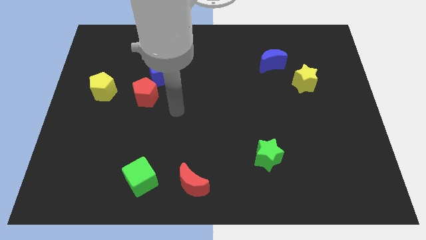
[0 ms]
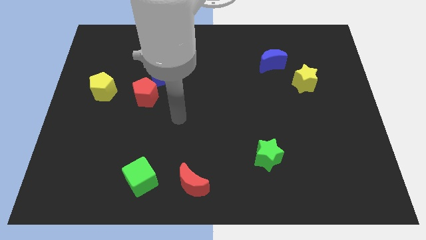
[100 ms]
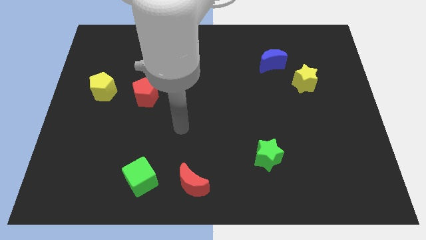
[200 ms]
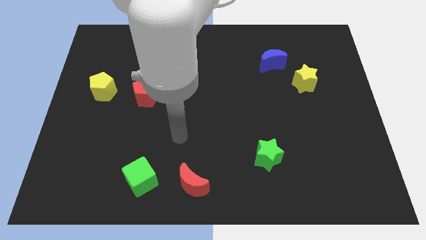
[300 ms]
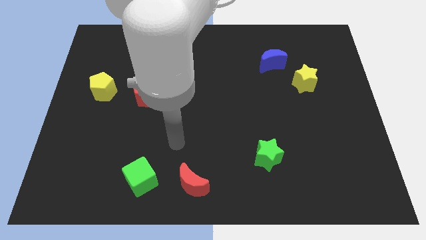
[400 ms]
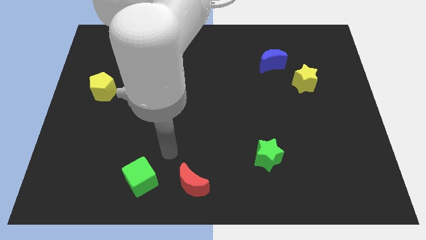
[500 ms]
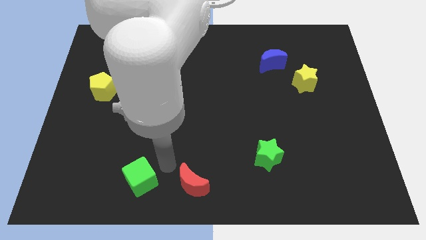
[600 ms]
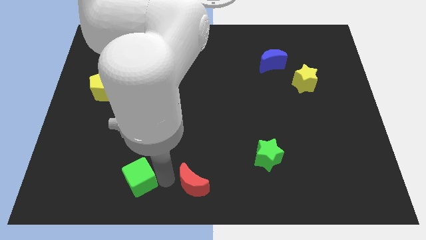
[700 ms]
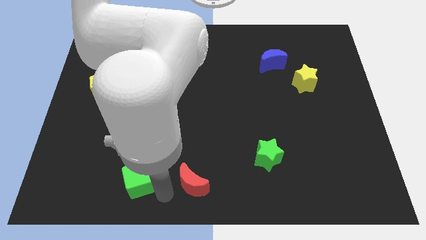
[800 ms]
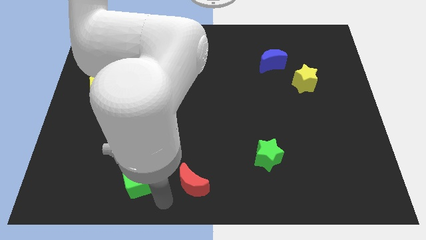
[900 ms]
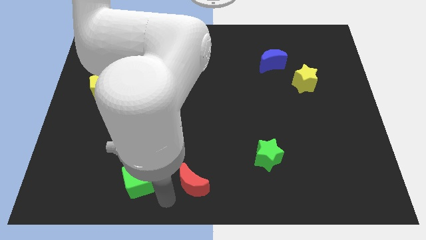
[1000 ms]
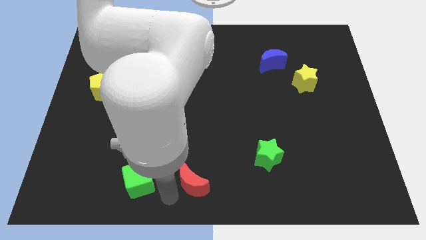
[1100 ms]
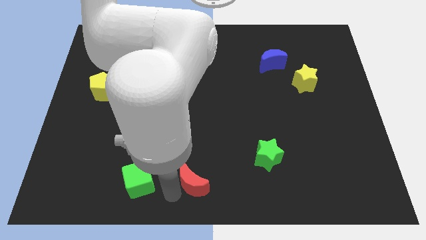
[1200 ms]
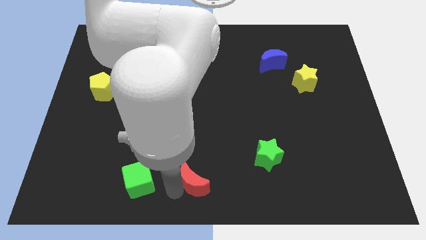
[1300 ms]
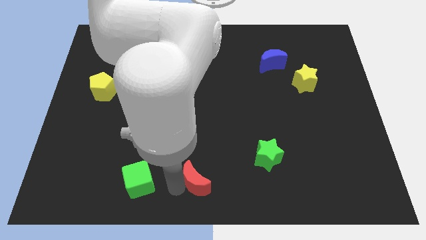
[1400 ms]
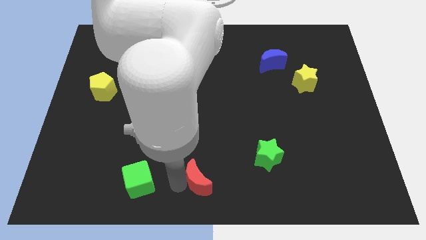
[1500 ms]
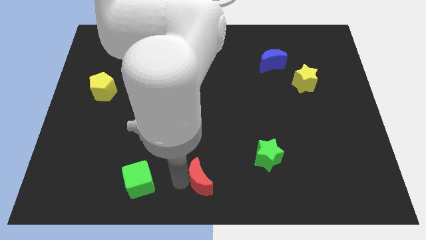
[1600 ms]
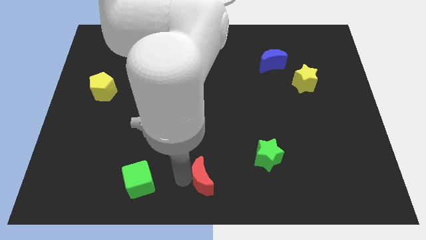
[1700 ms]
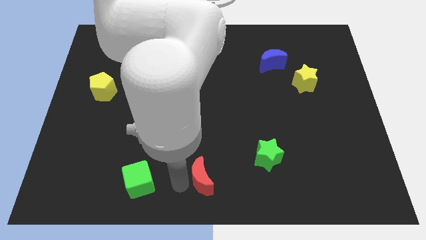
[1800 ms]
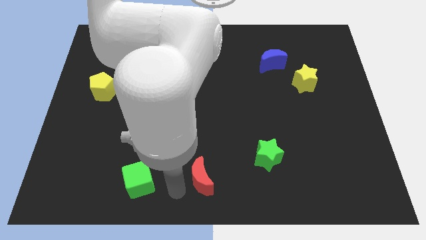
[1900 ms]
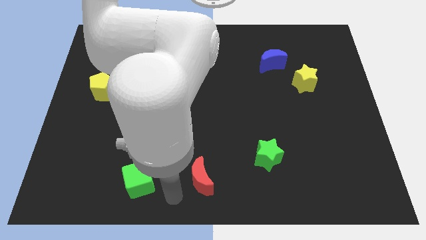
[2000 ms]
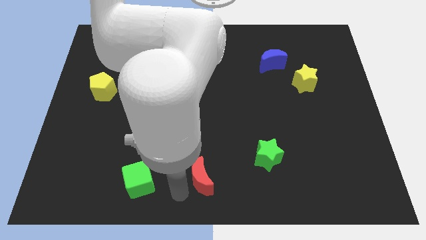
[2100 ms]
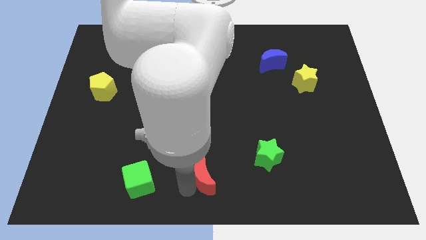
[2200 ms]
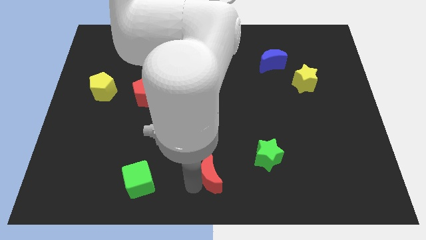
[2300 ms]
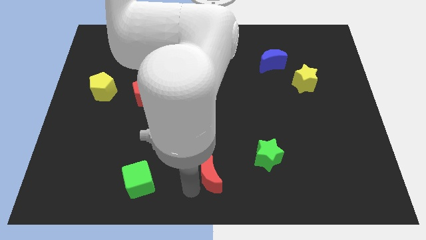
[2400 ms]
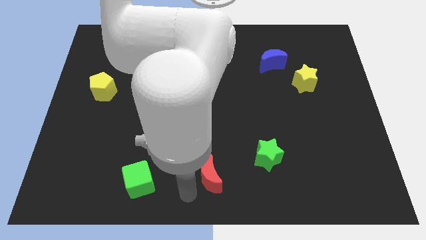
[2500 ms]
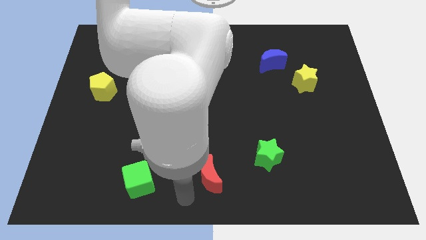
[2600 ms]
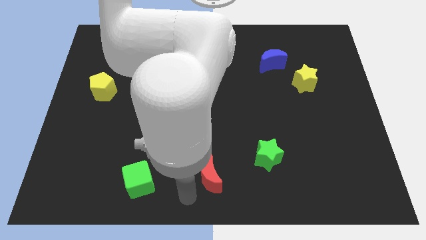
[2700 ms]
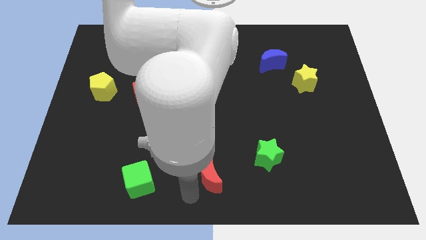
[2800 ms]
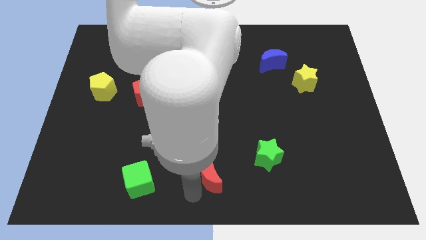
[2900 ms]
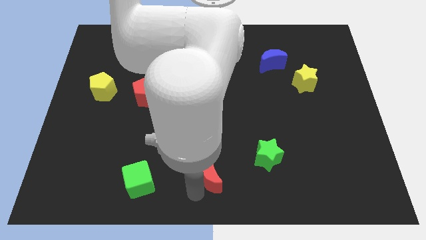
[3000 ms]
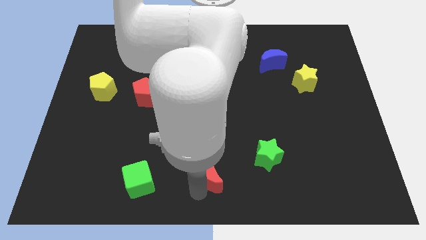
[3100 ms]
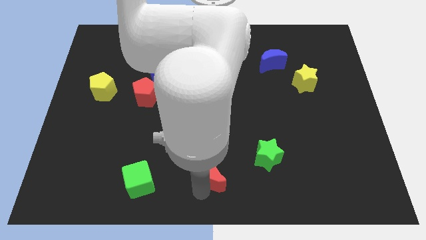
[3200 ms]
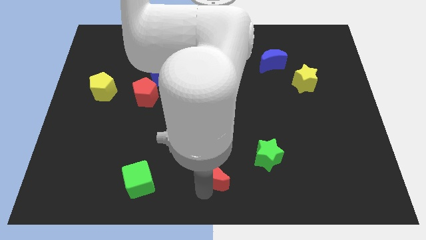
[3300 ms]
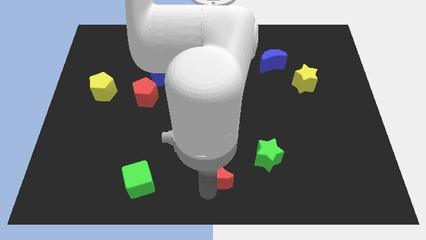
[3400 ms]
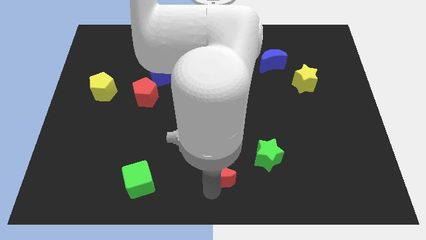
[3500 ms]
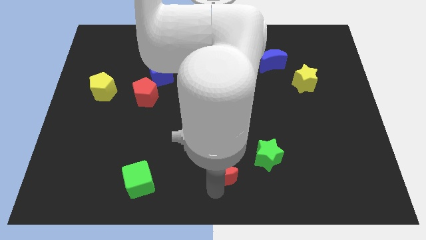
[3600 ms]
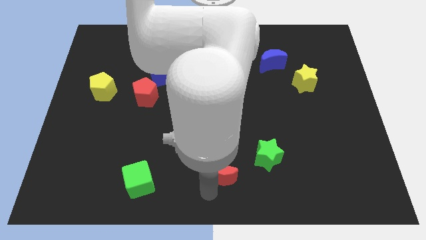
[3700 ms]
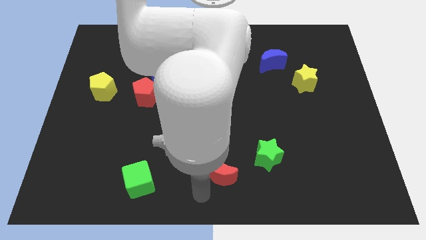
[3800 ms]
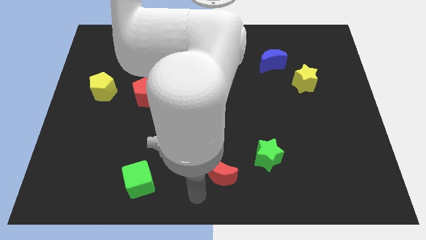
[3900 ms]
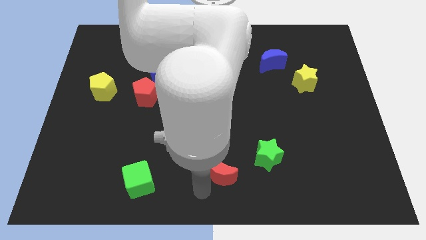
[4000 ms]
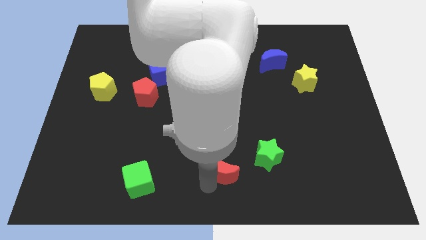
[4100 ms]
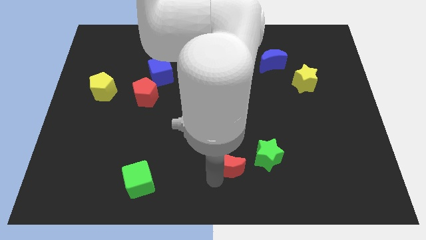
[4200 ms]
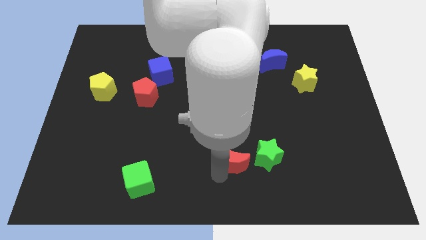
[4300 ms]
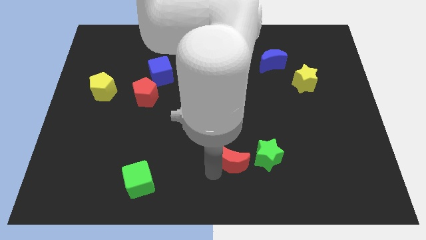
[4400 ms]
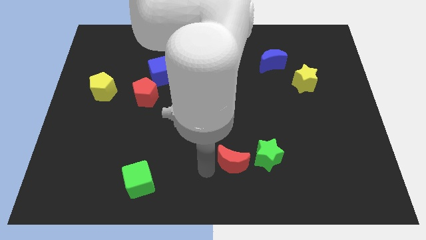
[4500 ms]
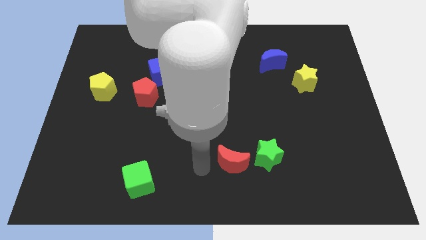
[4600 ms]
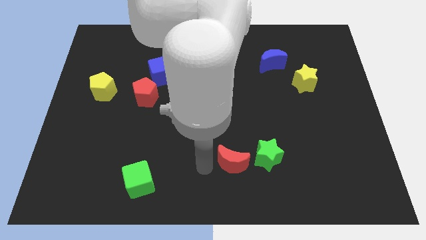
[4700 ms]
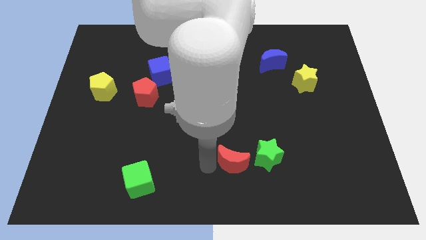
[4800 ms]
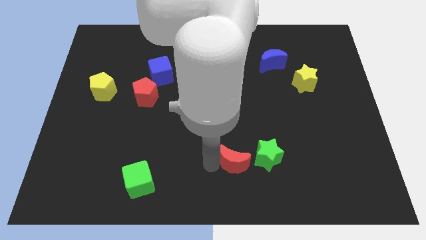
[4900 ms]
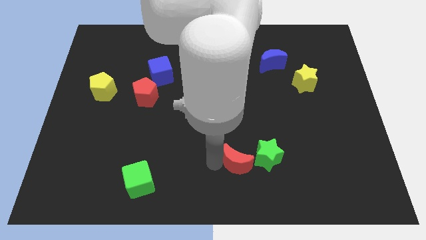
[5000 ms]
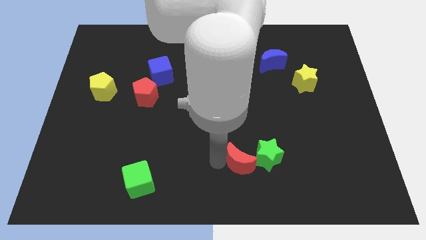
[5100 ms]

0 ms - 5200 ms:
push the red moon next to the green star

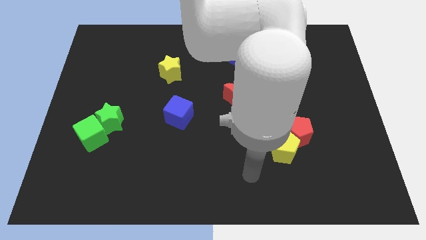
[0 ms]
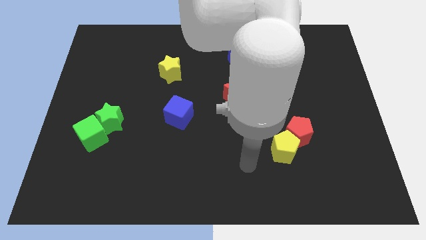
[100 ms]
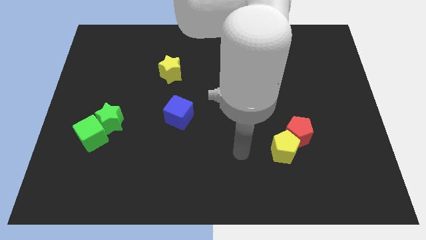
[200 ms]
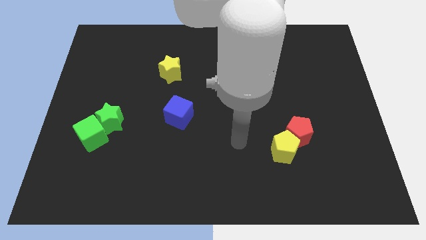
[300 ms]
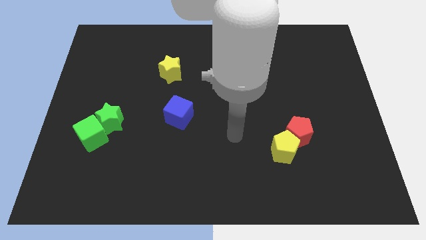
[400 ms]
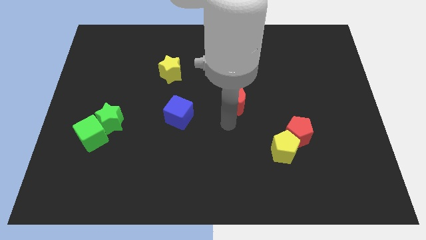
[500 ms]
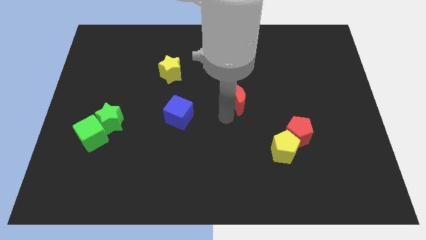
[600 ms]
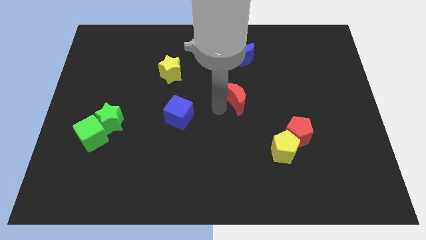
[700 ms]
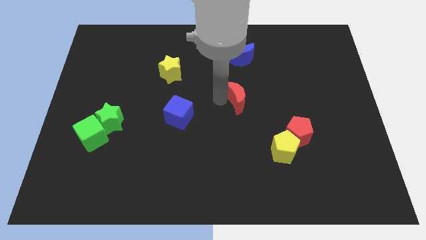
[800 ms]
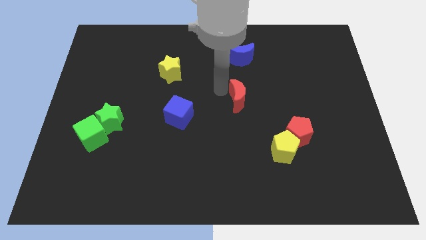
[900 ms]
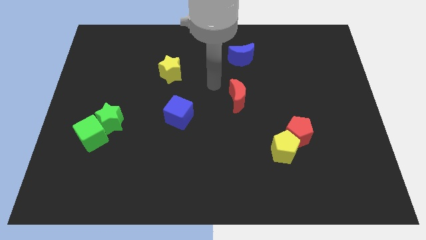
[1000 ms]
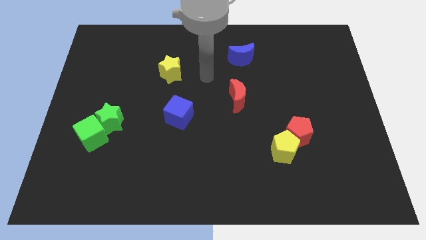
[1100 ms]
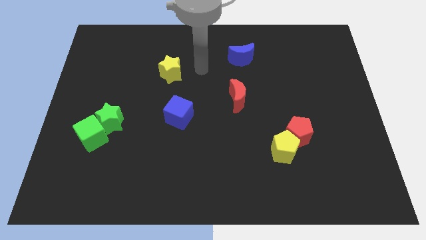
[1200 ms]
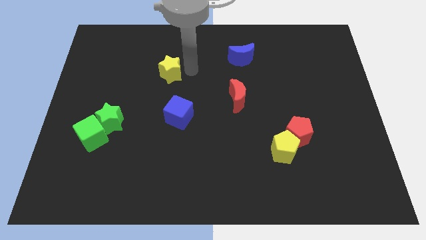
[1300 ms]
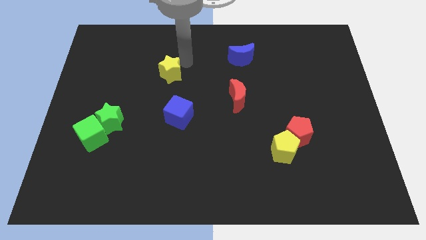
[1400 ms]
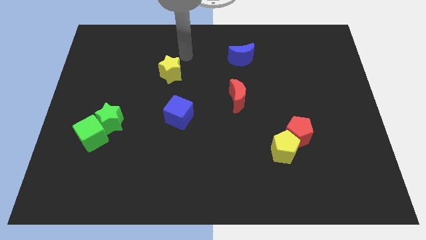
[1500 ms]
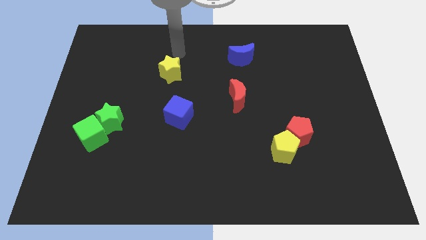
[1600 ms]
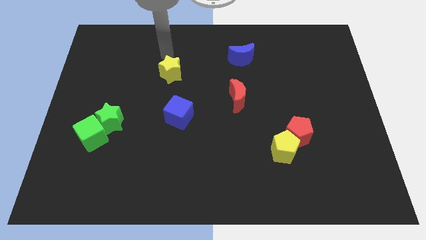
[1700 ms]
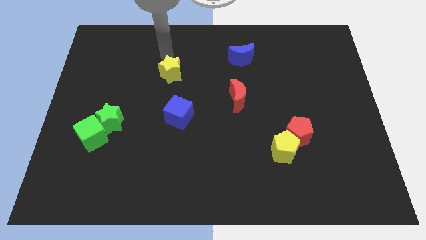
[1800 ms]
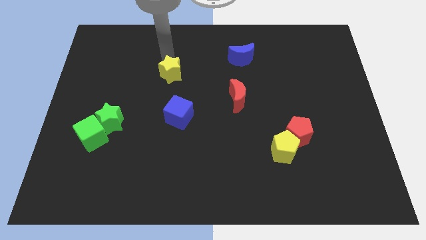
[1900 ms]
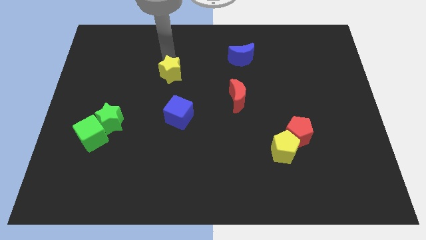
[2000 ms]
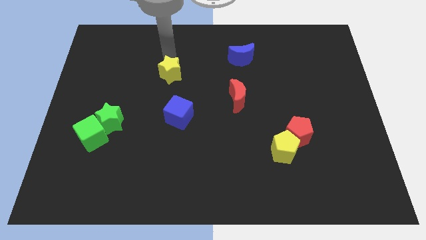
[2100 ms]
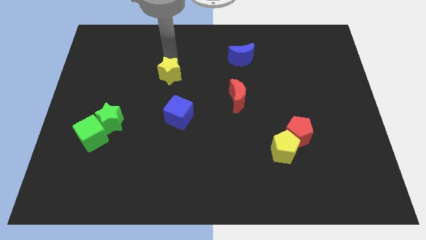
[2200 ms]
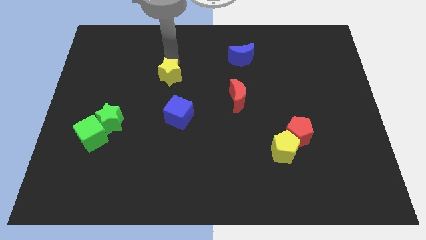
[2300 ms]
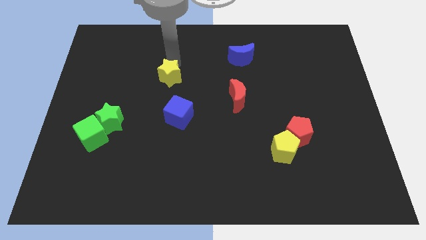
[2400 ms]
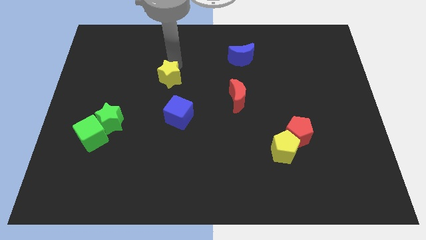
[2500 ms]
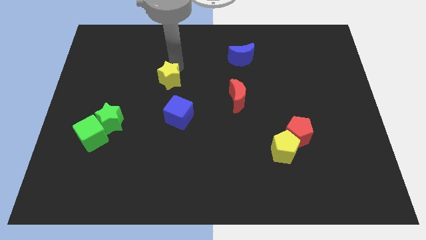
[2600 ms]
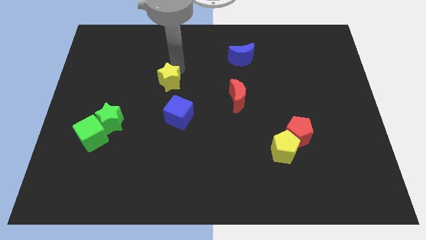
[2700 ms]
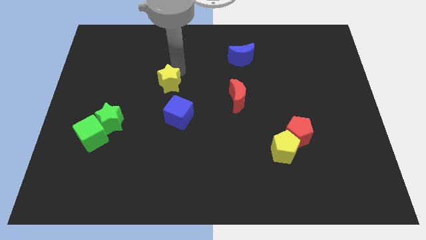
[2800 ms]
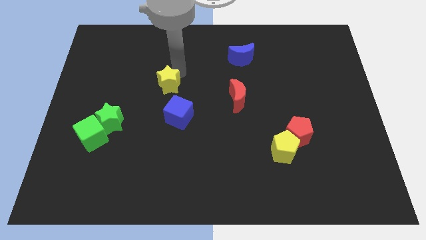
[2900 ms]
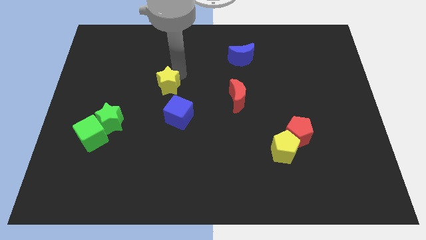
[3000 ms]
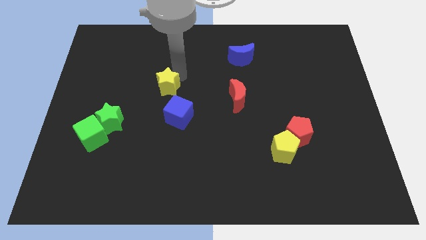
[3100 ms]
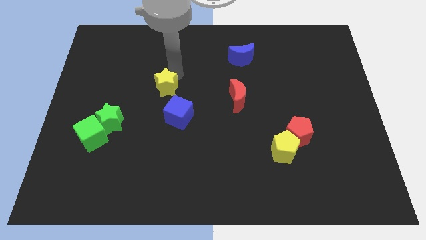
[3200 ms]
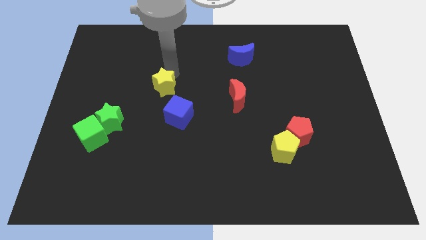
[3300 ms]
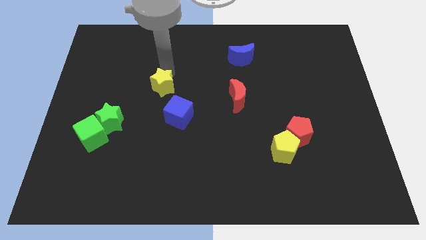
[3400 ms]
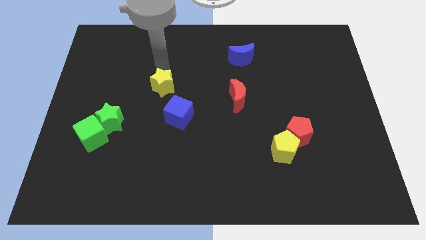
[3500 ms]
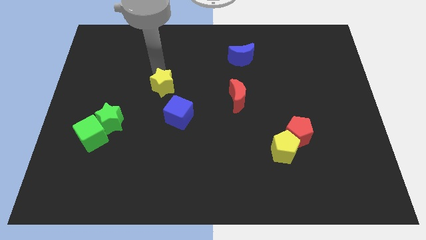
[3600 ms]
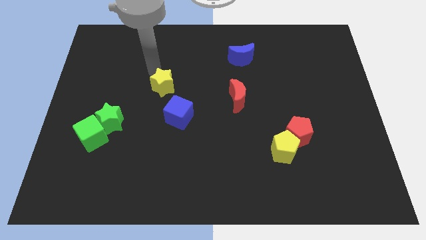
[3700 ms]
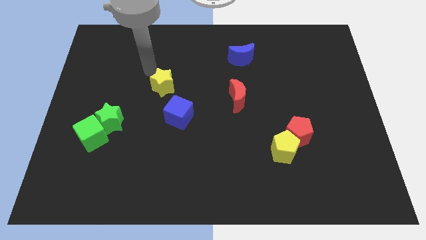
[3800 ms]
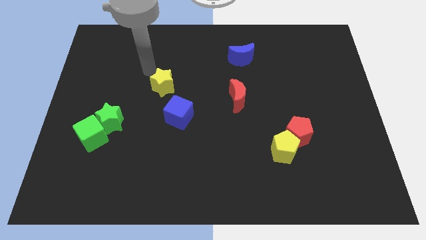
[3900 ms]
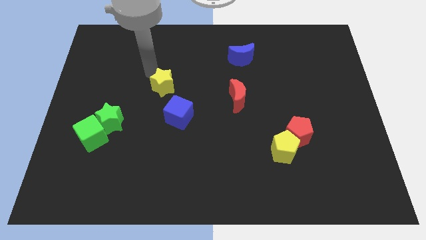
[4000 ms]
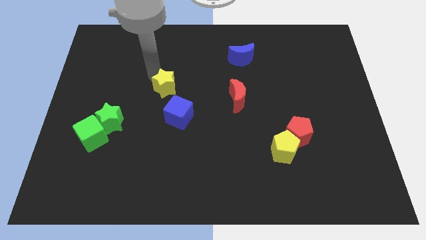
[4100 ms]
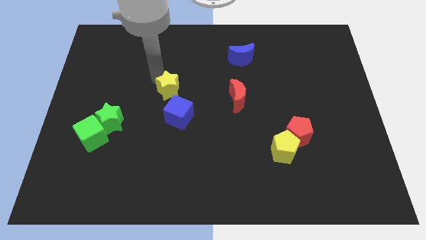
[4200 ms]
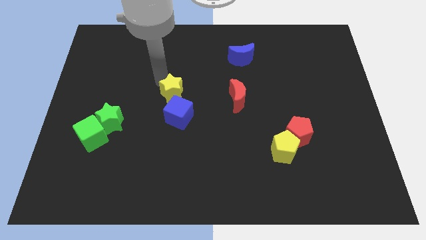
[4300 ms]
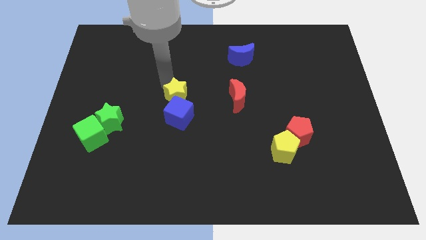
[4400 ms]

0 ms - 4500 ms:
put the yellow star to the blue cube
